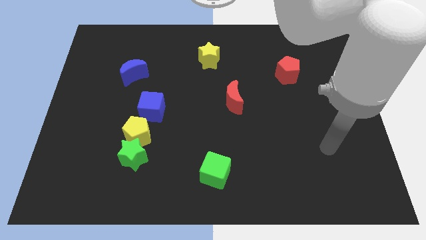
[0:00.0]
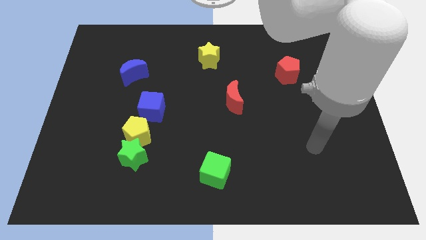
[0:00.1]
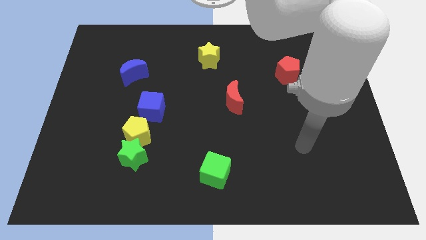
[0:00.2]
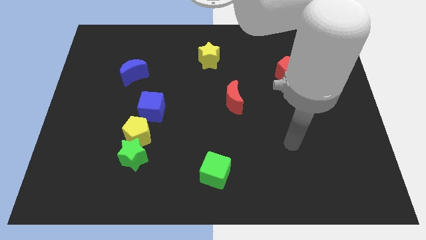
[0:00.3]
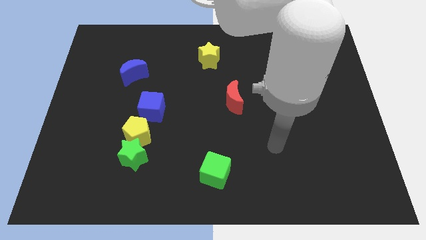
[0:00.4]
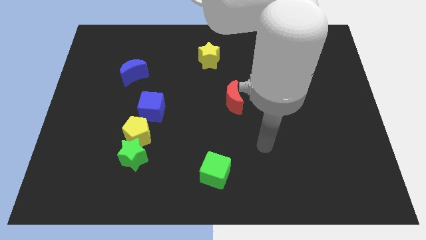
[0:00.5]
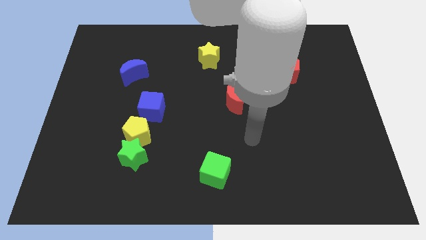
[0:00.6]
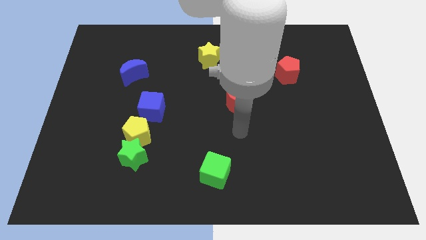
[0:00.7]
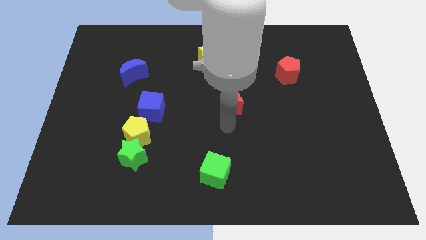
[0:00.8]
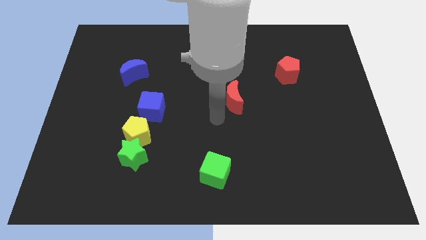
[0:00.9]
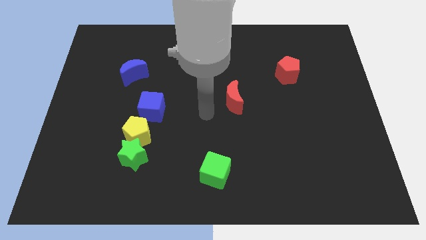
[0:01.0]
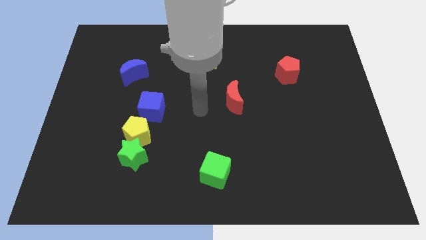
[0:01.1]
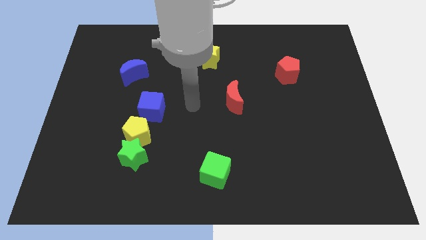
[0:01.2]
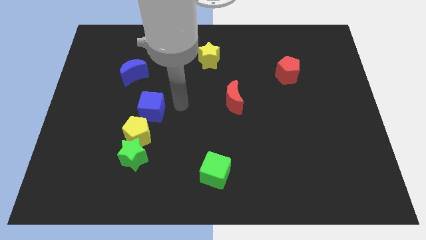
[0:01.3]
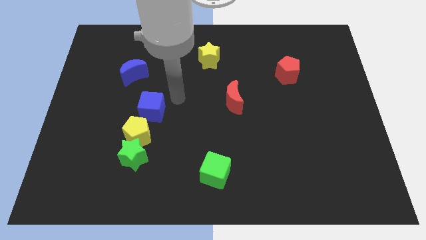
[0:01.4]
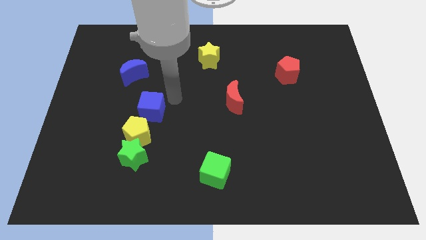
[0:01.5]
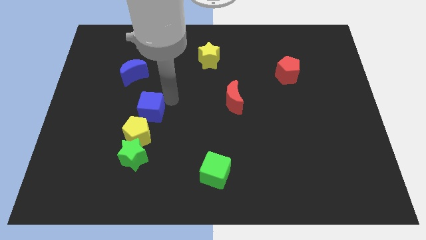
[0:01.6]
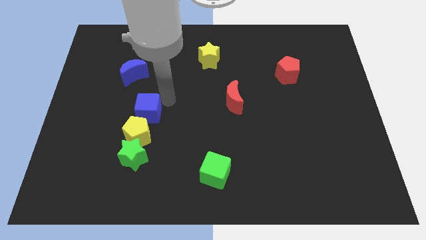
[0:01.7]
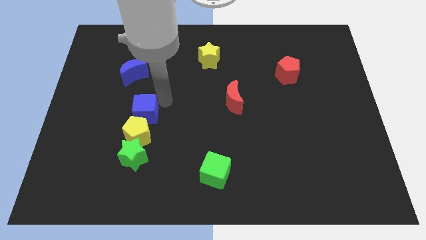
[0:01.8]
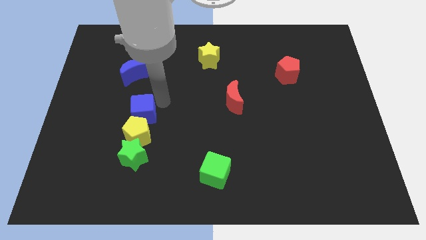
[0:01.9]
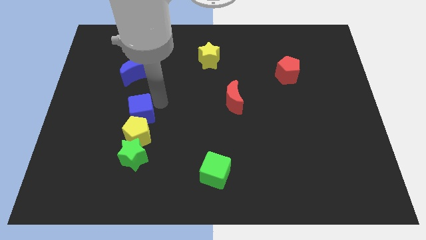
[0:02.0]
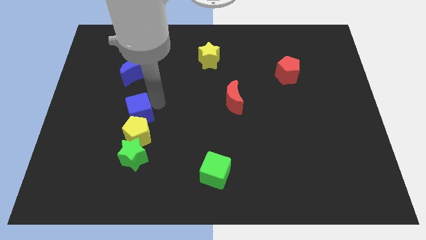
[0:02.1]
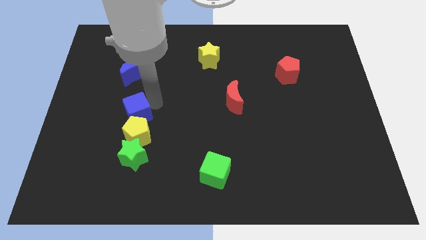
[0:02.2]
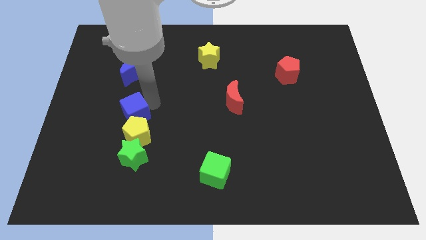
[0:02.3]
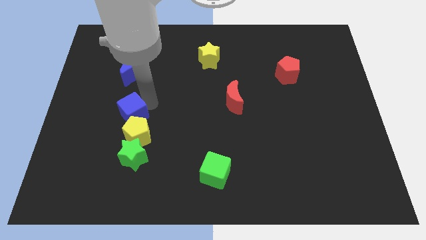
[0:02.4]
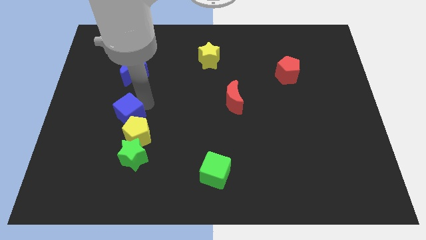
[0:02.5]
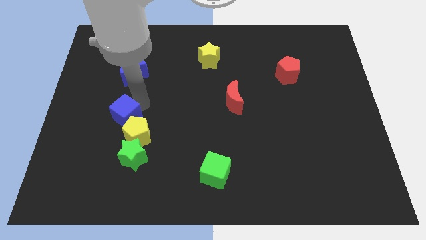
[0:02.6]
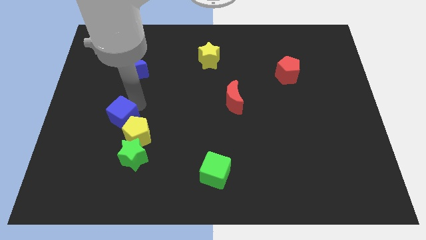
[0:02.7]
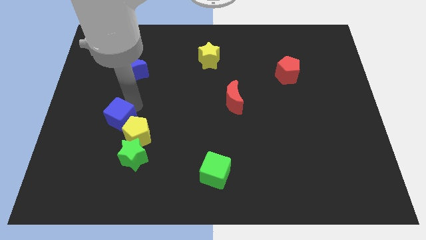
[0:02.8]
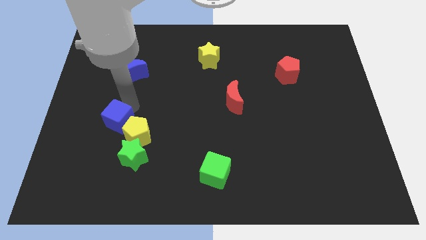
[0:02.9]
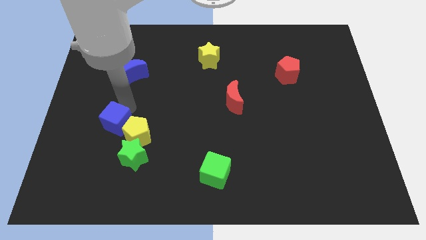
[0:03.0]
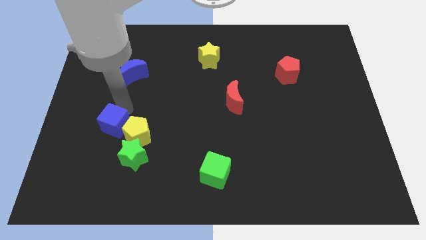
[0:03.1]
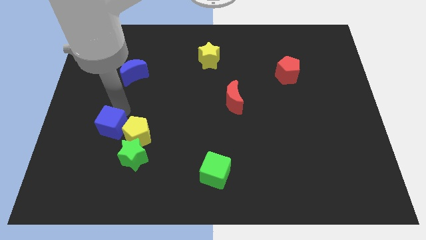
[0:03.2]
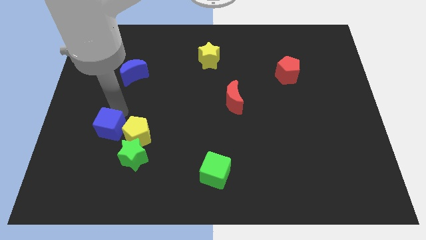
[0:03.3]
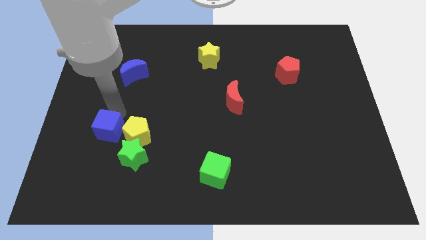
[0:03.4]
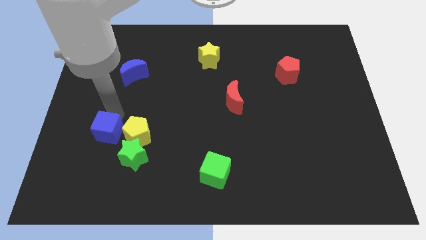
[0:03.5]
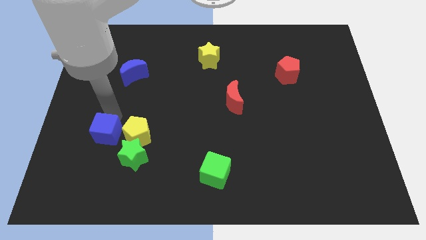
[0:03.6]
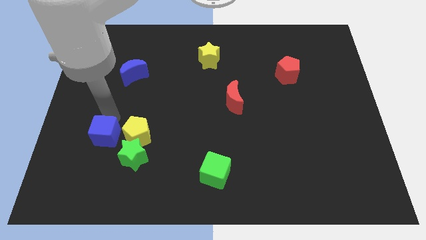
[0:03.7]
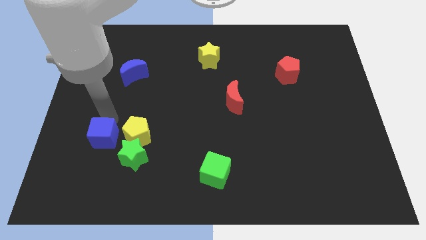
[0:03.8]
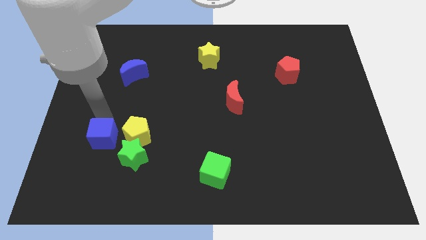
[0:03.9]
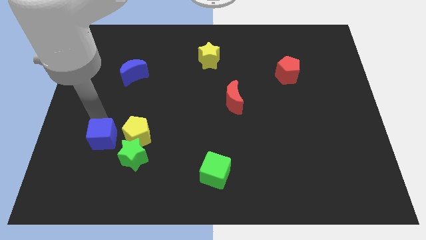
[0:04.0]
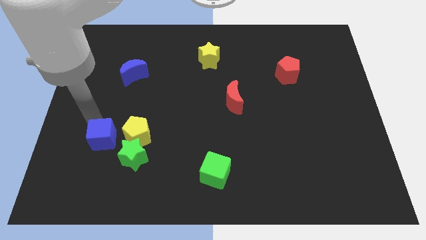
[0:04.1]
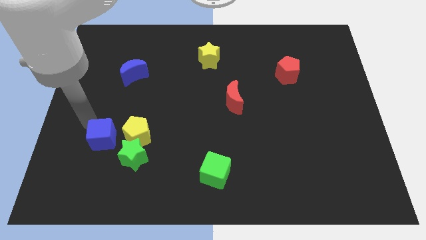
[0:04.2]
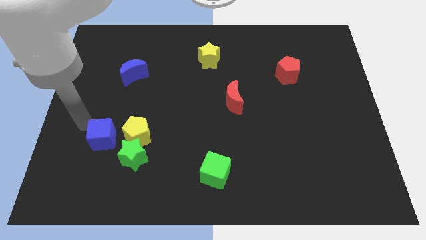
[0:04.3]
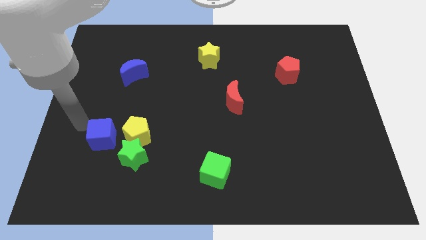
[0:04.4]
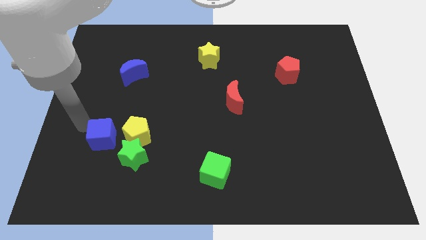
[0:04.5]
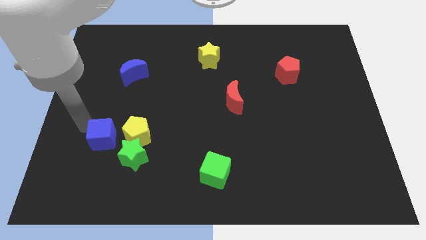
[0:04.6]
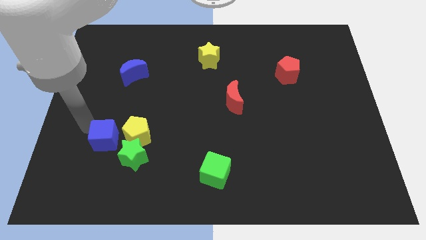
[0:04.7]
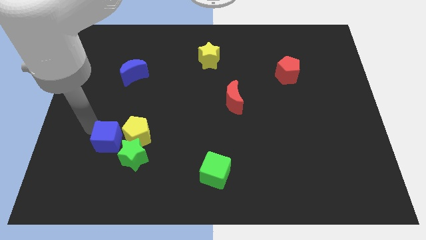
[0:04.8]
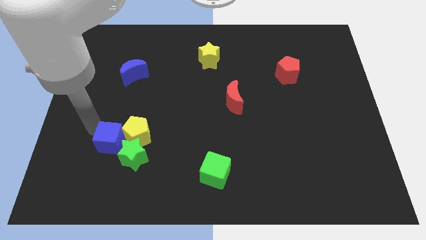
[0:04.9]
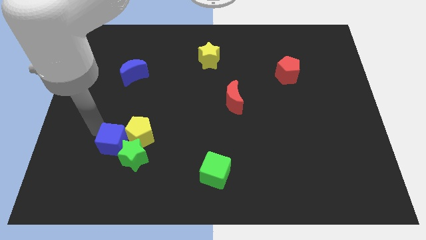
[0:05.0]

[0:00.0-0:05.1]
move the blue cube towards the green star

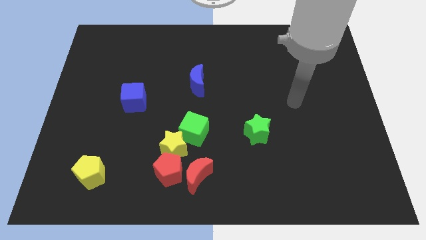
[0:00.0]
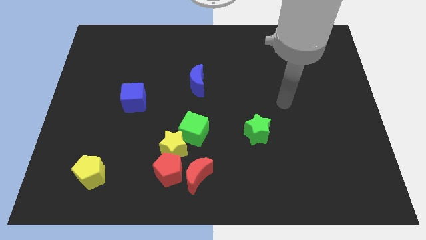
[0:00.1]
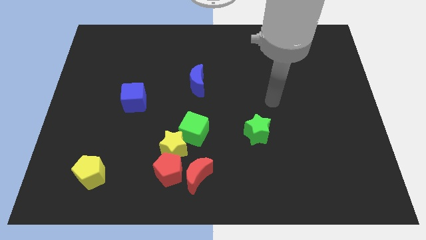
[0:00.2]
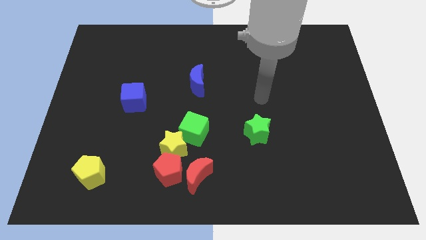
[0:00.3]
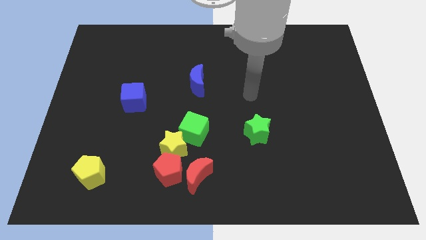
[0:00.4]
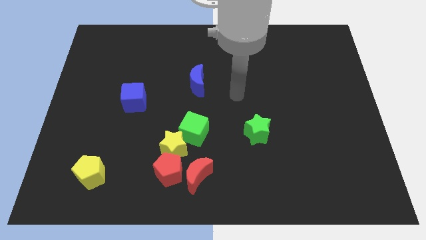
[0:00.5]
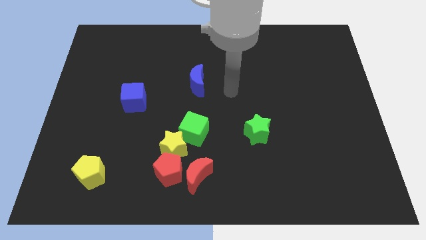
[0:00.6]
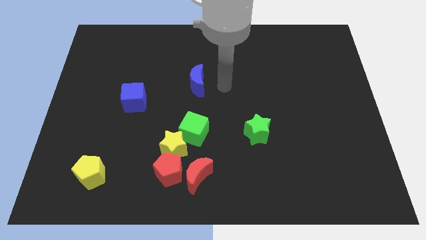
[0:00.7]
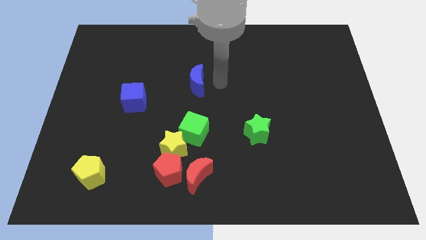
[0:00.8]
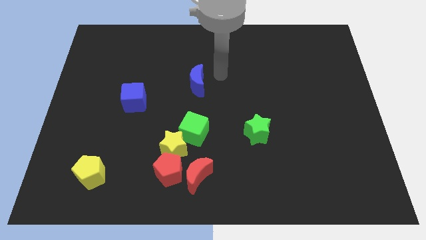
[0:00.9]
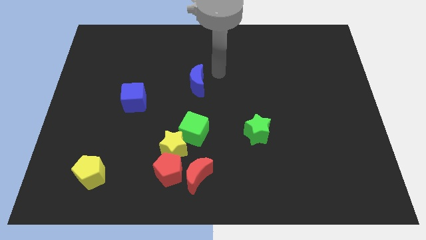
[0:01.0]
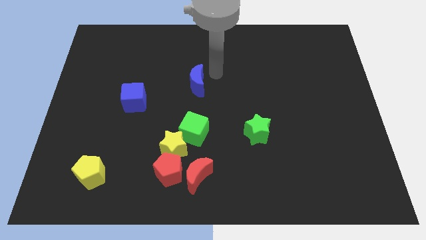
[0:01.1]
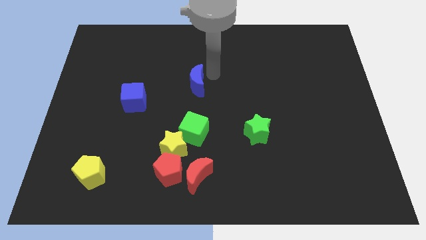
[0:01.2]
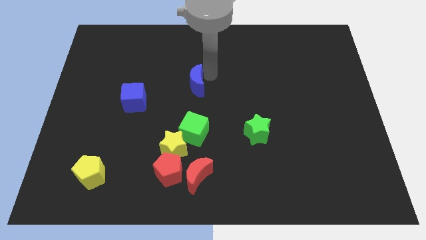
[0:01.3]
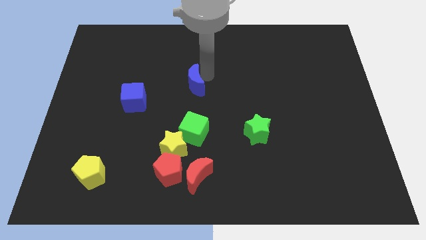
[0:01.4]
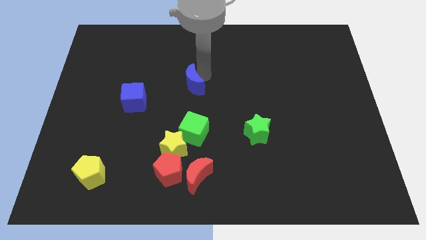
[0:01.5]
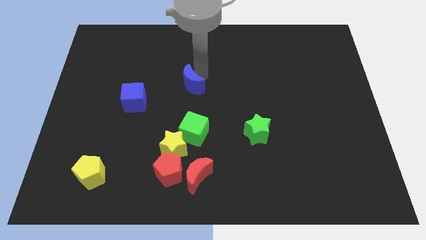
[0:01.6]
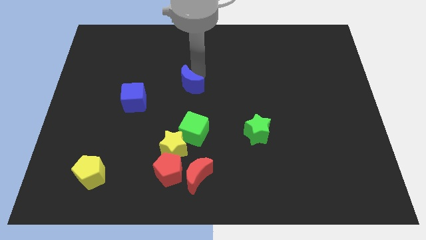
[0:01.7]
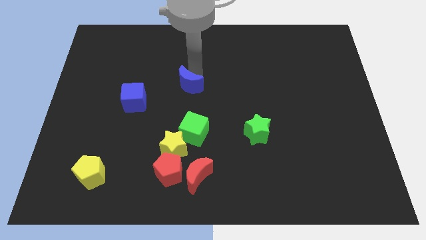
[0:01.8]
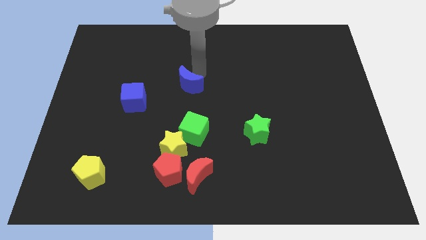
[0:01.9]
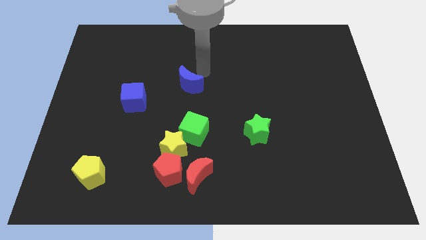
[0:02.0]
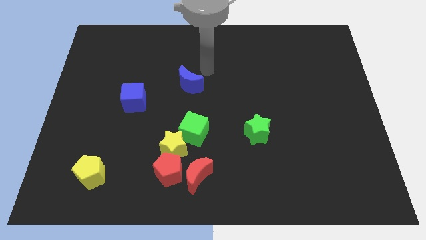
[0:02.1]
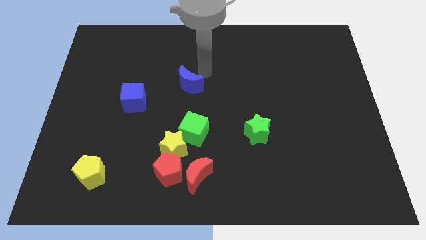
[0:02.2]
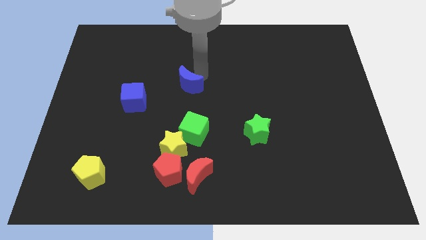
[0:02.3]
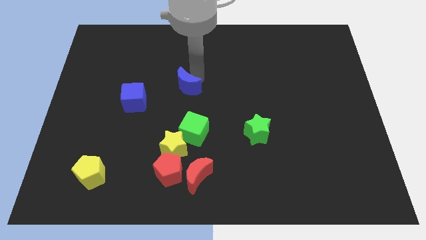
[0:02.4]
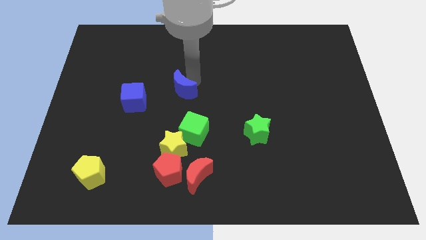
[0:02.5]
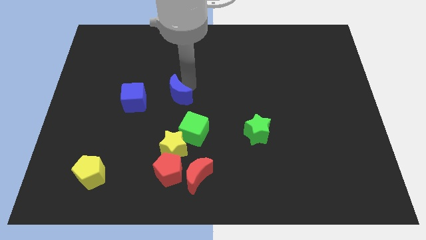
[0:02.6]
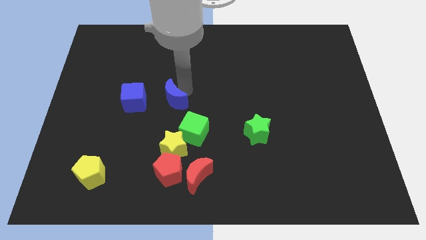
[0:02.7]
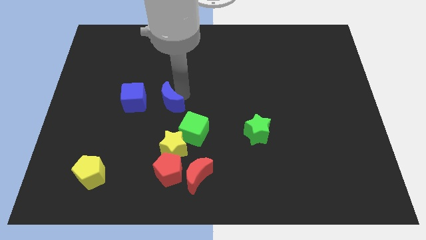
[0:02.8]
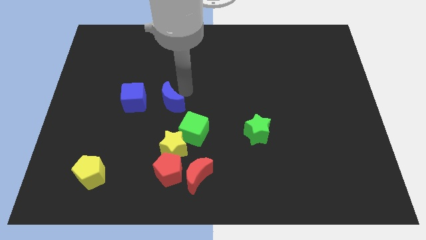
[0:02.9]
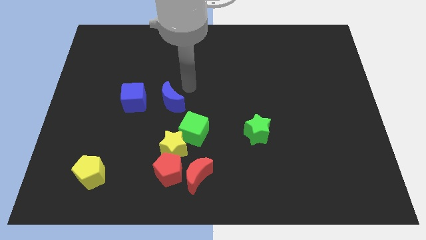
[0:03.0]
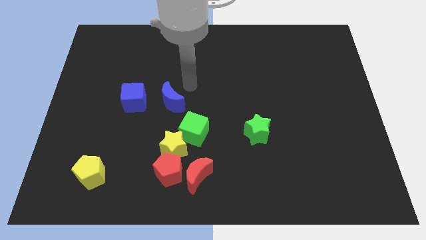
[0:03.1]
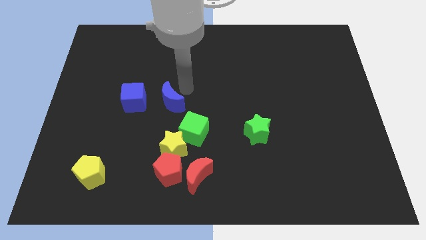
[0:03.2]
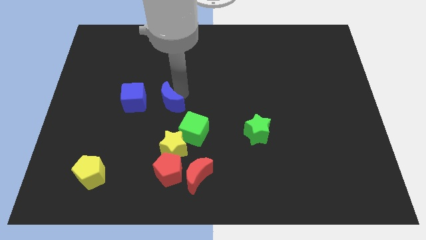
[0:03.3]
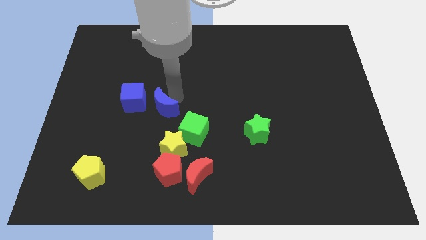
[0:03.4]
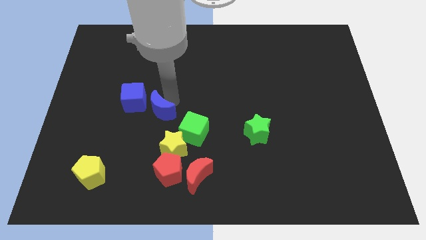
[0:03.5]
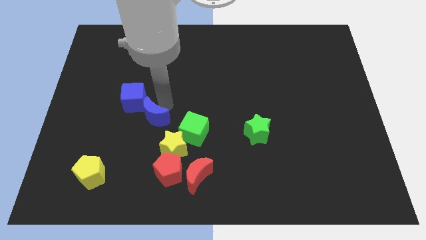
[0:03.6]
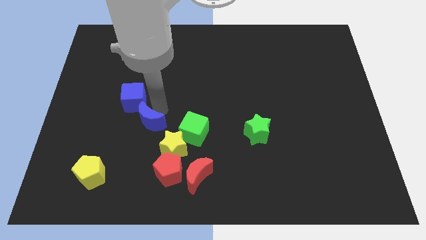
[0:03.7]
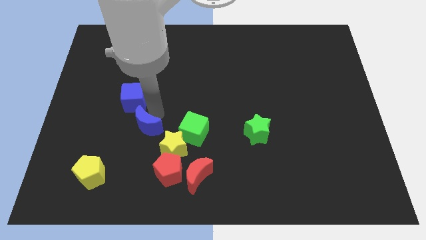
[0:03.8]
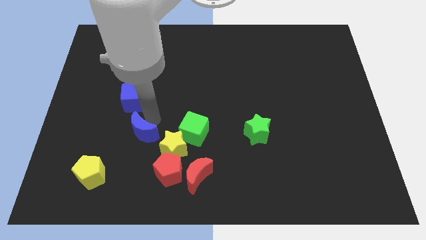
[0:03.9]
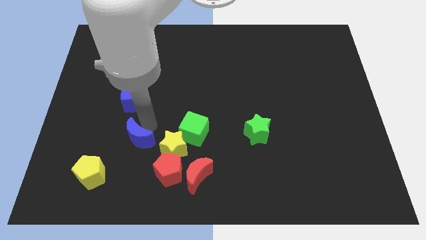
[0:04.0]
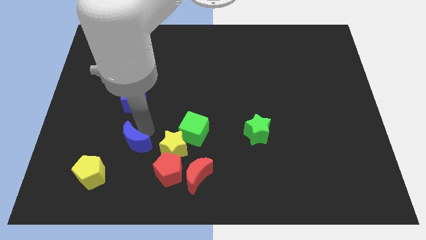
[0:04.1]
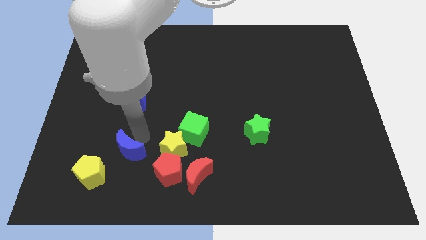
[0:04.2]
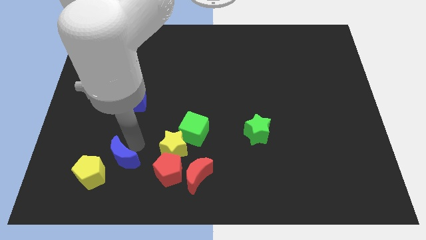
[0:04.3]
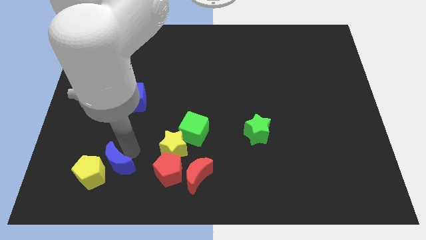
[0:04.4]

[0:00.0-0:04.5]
move the blue moon to the yellow pentagon
